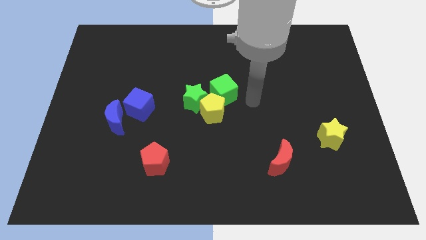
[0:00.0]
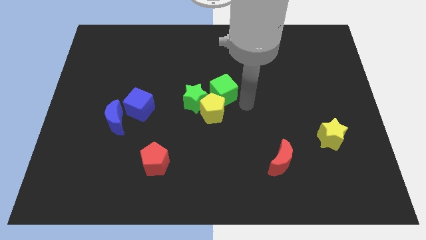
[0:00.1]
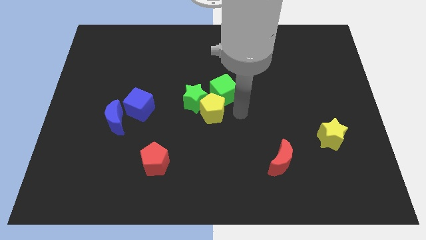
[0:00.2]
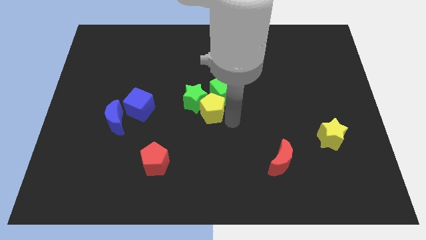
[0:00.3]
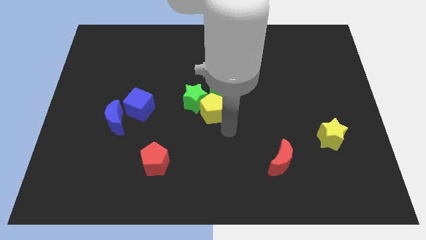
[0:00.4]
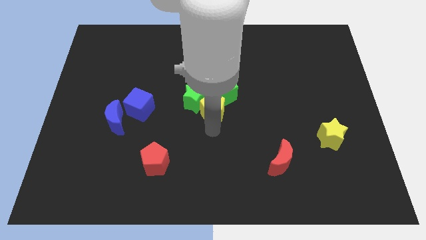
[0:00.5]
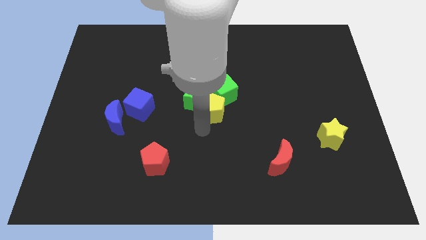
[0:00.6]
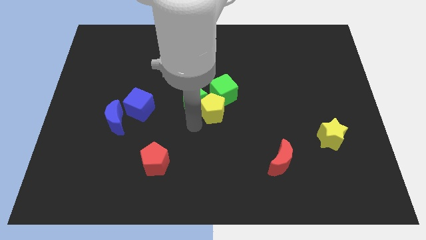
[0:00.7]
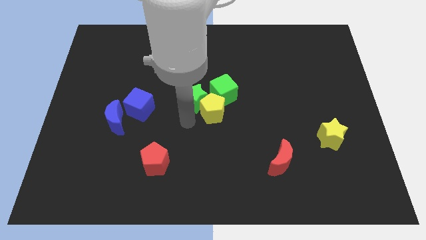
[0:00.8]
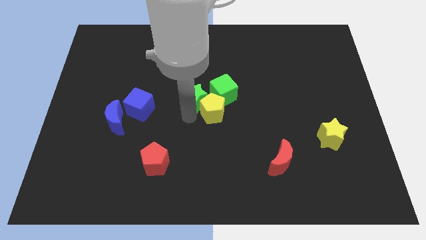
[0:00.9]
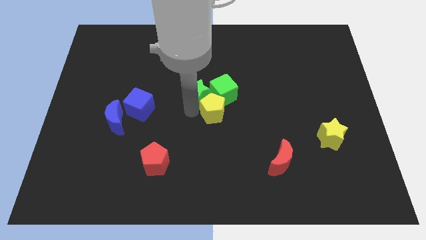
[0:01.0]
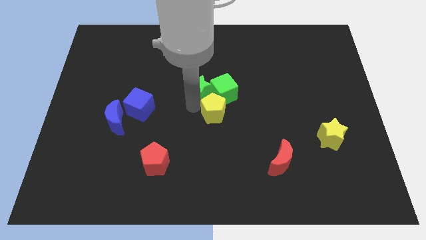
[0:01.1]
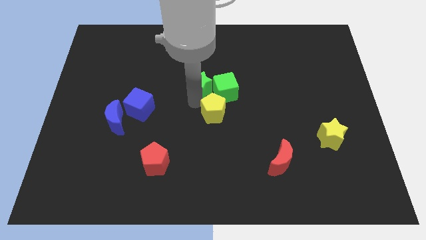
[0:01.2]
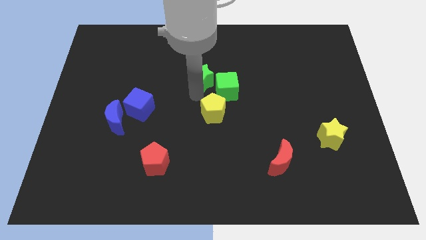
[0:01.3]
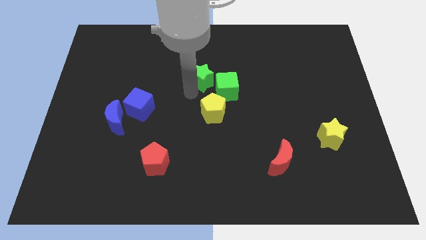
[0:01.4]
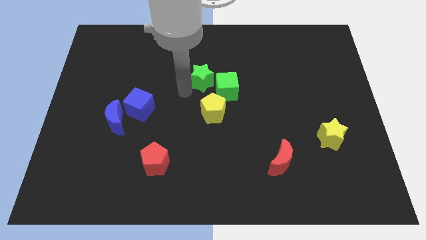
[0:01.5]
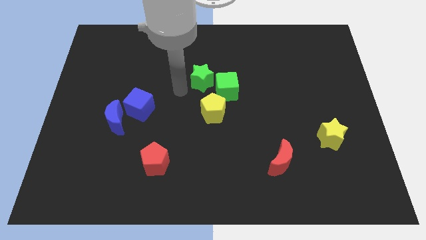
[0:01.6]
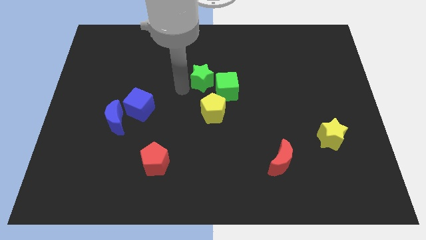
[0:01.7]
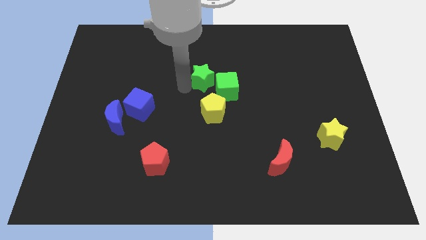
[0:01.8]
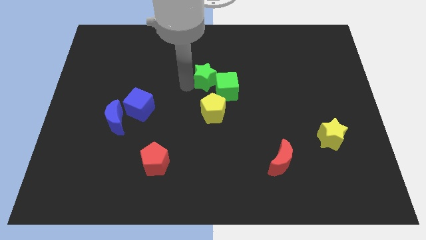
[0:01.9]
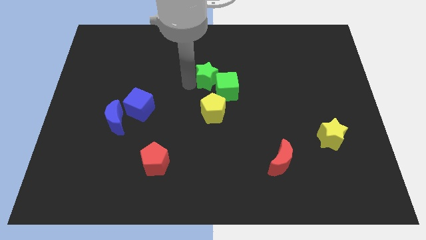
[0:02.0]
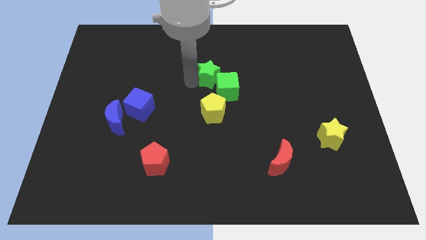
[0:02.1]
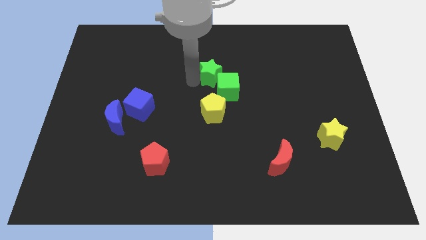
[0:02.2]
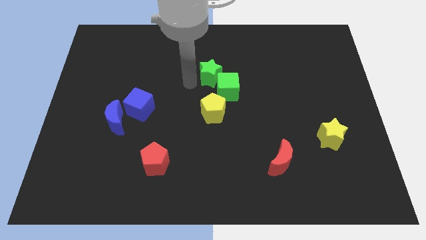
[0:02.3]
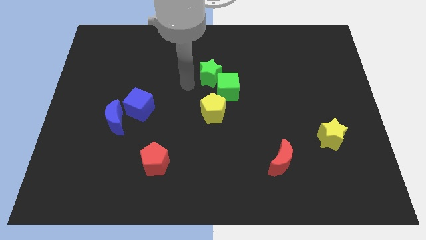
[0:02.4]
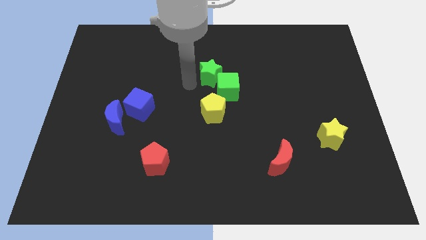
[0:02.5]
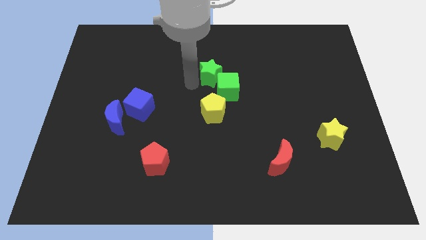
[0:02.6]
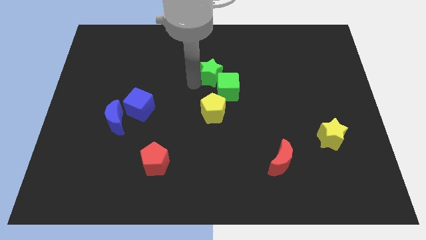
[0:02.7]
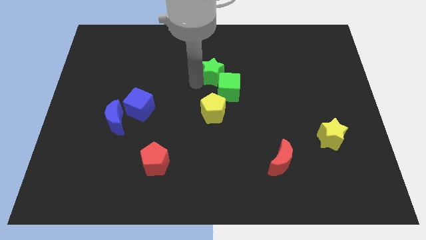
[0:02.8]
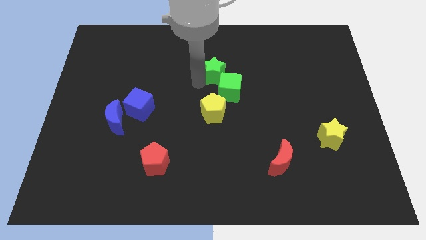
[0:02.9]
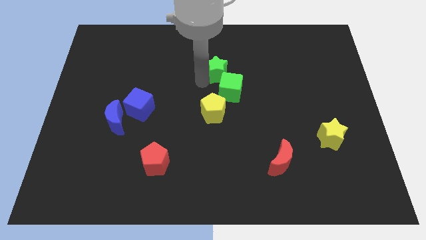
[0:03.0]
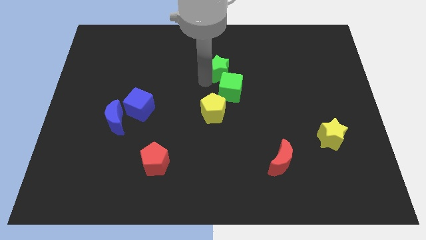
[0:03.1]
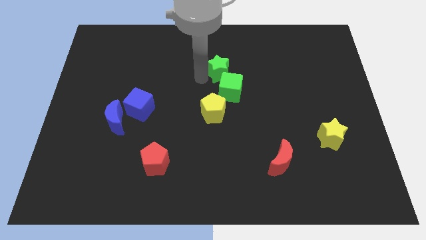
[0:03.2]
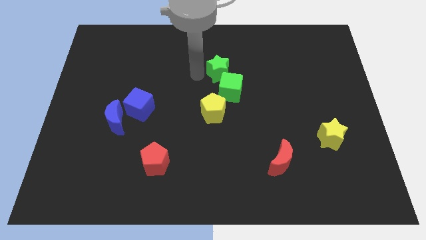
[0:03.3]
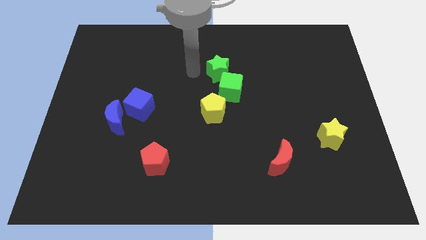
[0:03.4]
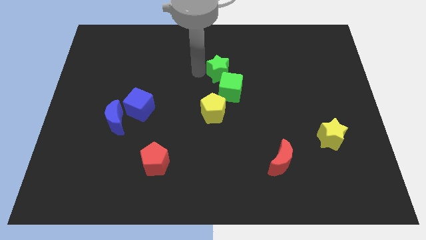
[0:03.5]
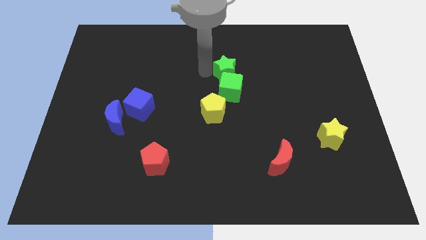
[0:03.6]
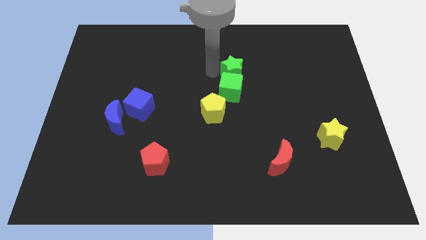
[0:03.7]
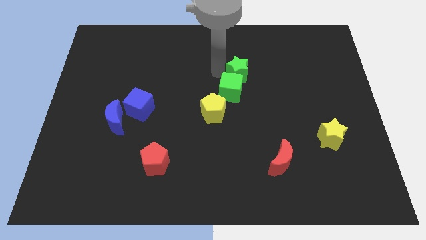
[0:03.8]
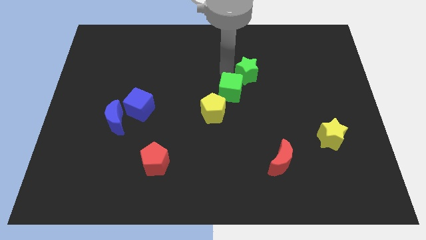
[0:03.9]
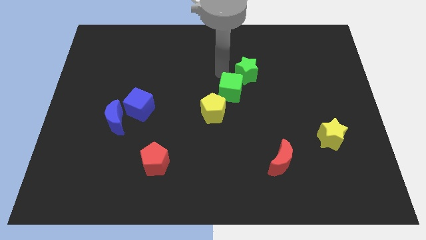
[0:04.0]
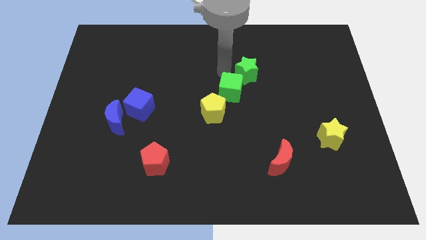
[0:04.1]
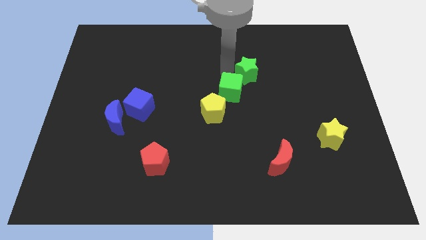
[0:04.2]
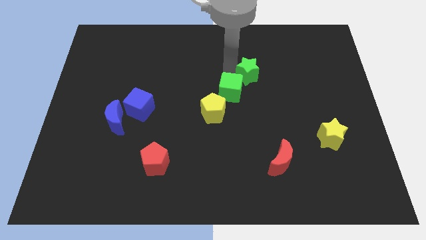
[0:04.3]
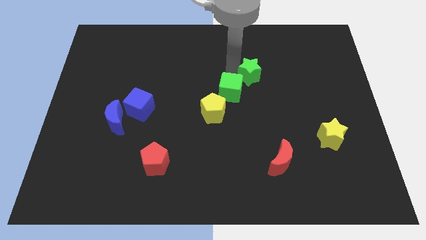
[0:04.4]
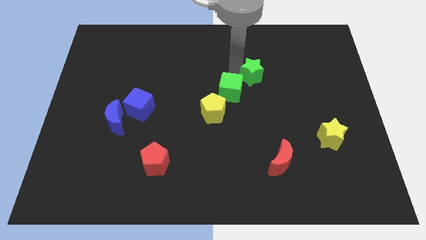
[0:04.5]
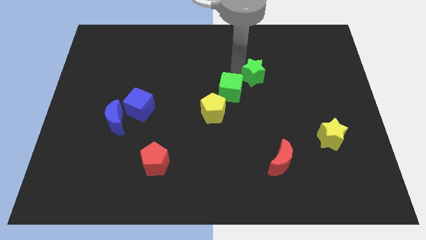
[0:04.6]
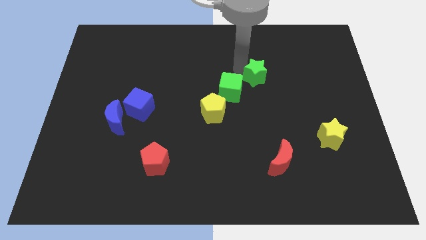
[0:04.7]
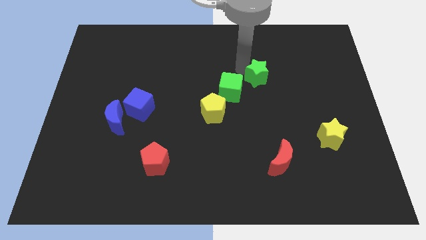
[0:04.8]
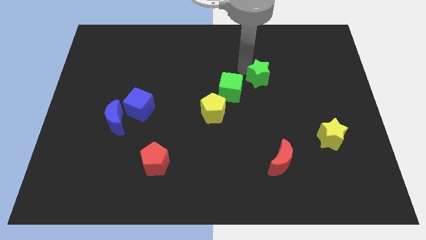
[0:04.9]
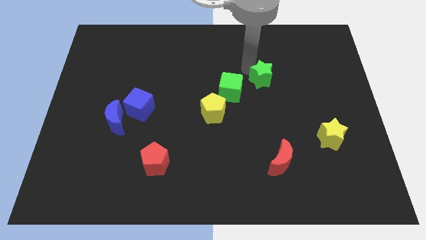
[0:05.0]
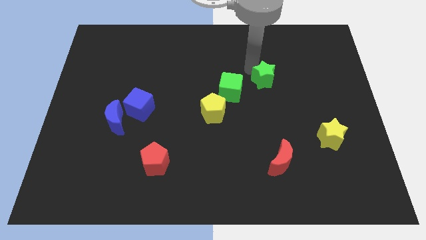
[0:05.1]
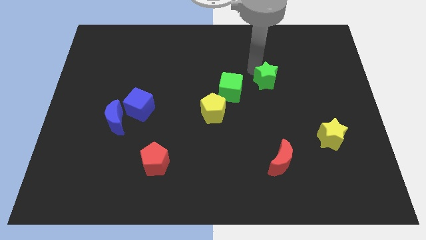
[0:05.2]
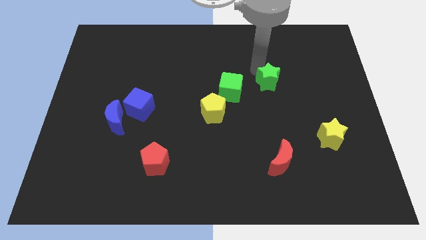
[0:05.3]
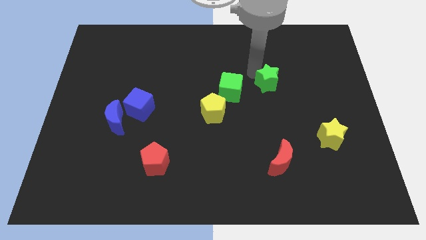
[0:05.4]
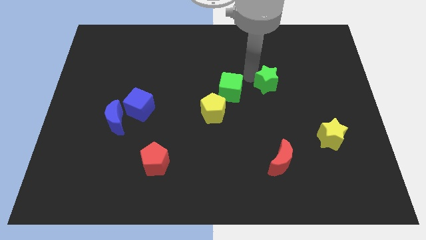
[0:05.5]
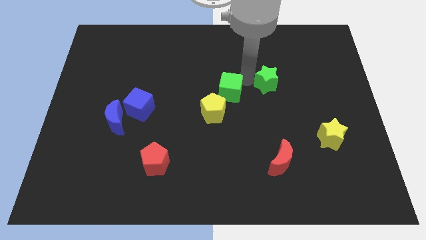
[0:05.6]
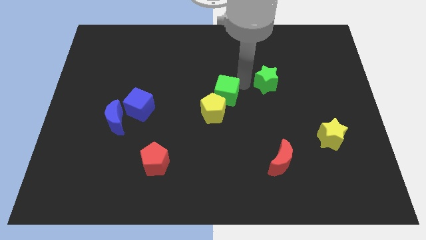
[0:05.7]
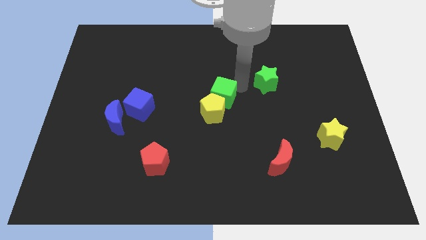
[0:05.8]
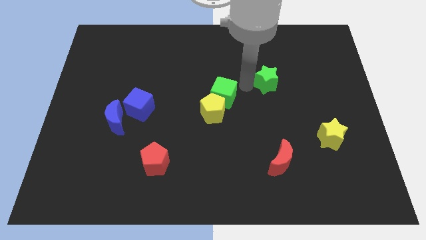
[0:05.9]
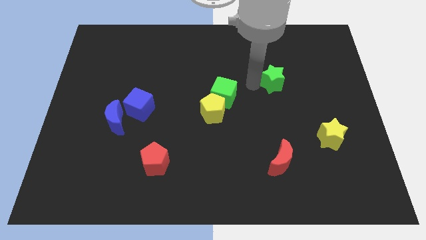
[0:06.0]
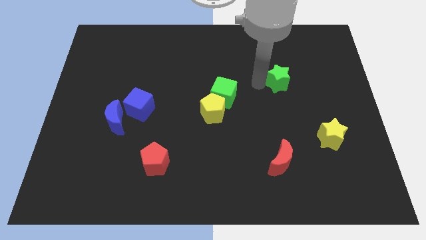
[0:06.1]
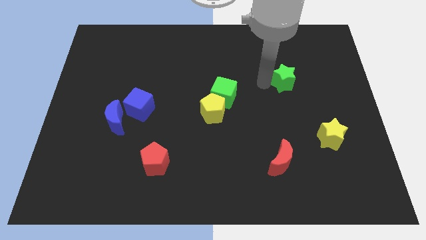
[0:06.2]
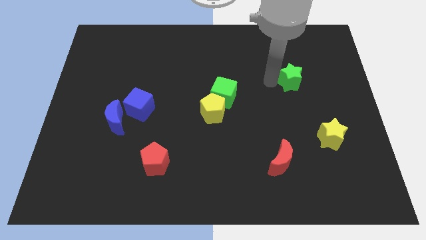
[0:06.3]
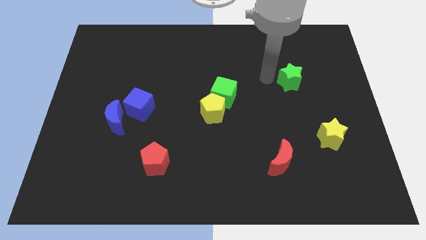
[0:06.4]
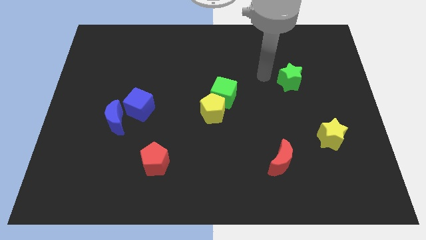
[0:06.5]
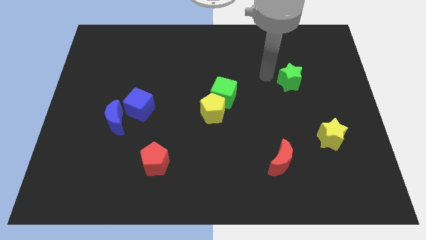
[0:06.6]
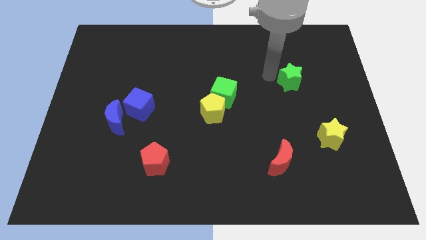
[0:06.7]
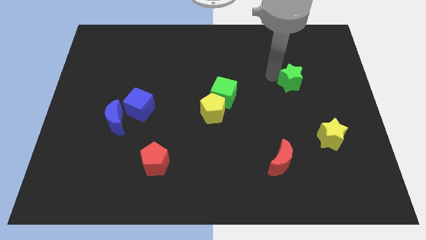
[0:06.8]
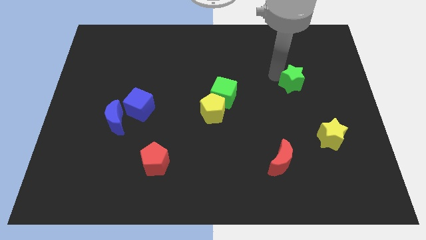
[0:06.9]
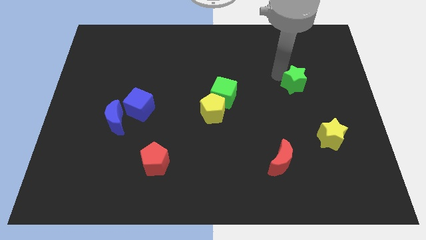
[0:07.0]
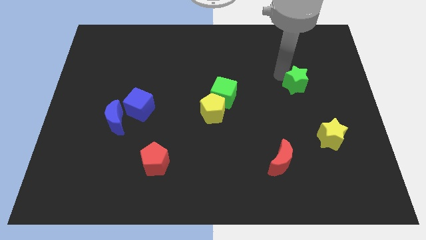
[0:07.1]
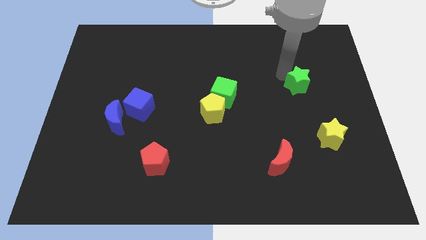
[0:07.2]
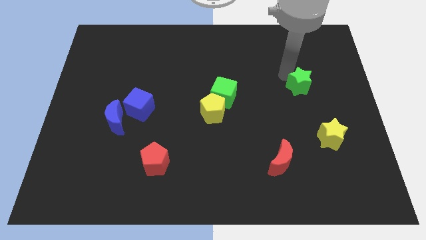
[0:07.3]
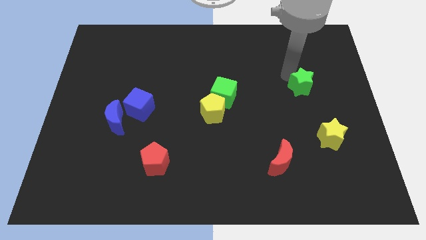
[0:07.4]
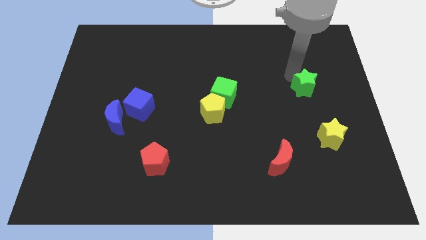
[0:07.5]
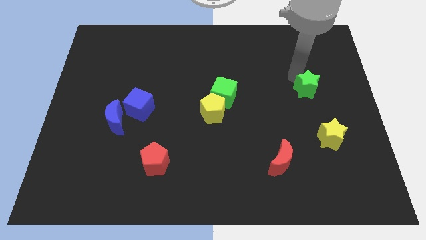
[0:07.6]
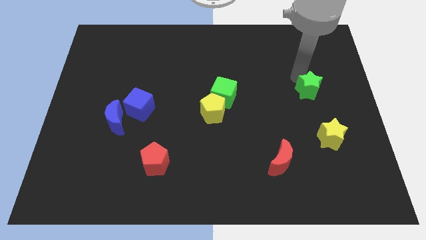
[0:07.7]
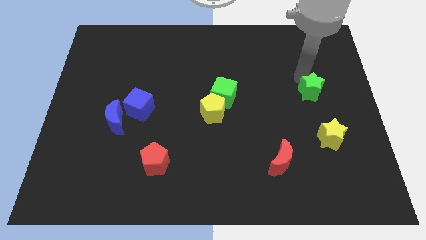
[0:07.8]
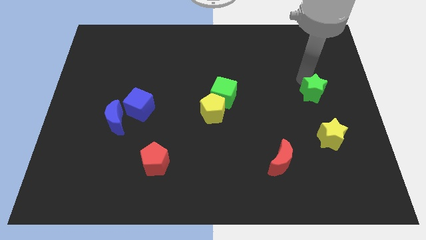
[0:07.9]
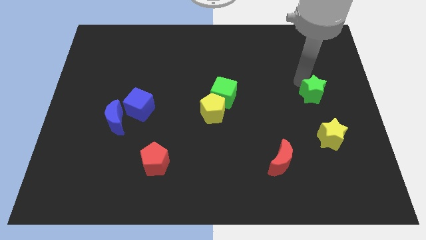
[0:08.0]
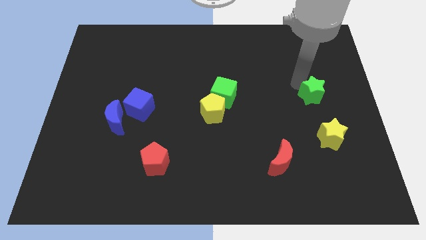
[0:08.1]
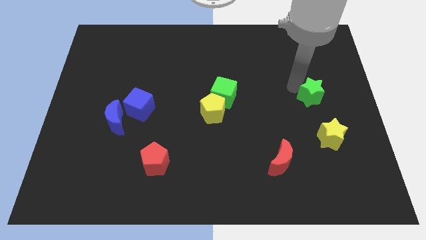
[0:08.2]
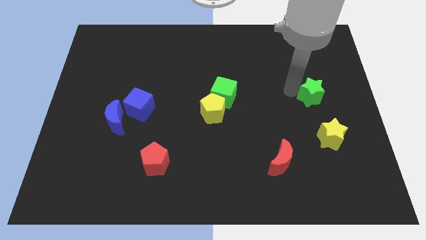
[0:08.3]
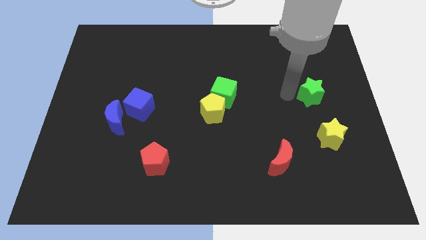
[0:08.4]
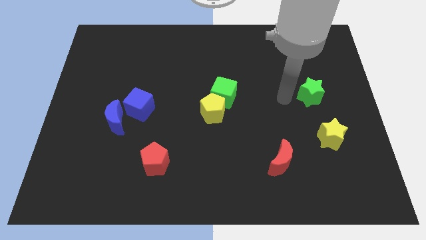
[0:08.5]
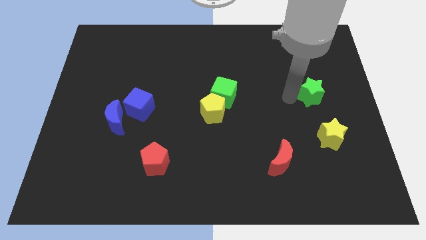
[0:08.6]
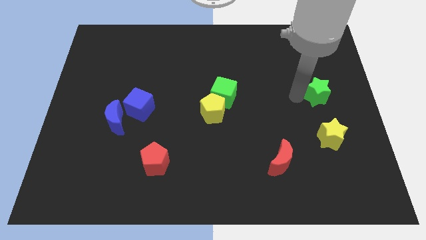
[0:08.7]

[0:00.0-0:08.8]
push the green star to the right side of the board
